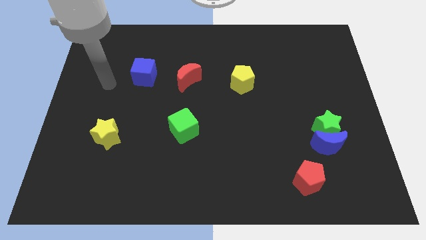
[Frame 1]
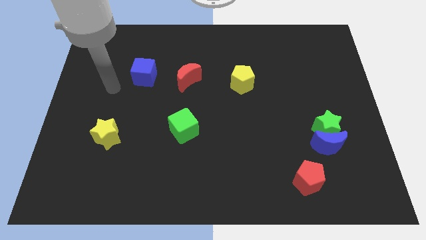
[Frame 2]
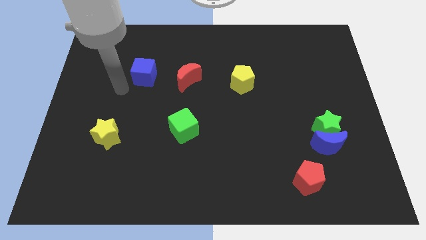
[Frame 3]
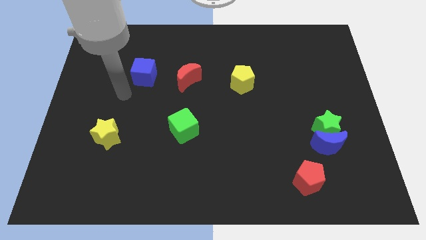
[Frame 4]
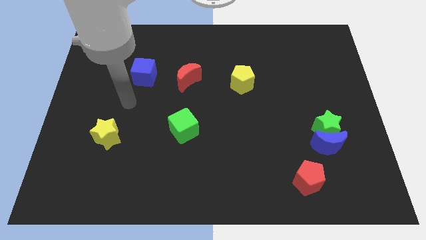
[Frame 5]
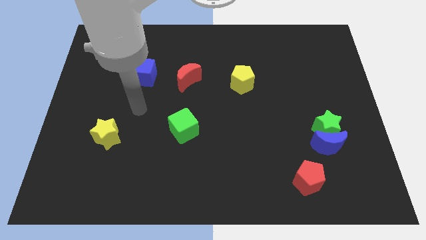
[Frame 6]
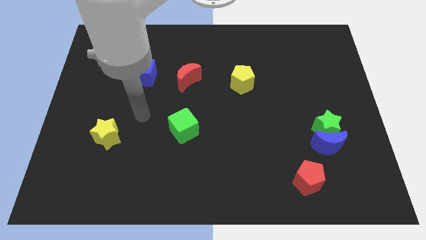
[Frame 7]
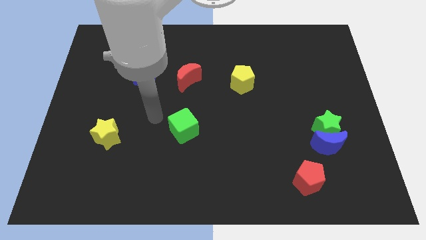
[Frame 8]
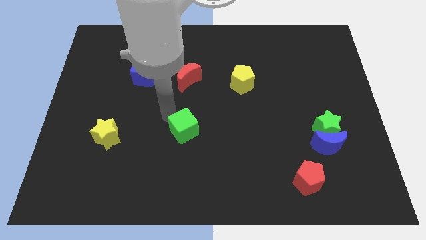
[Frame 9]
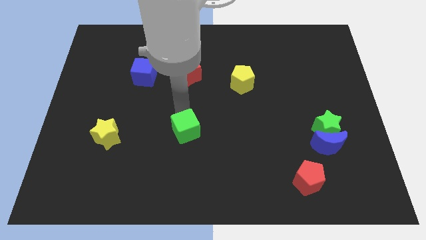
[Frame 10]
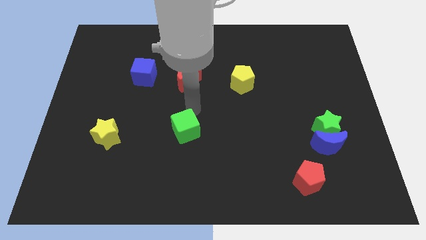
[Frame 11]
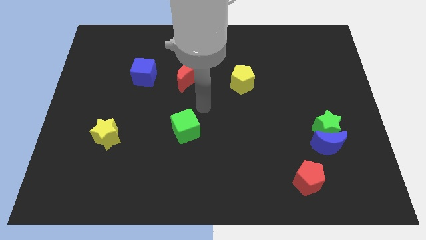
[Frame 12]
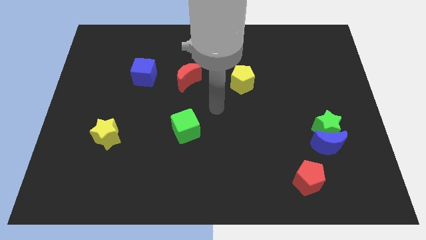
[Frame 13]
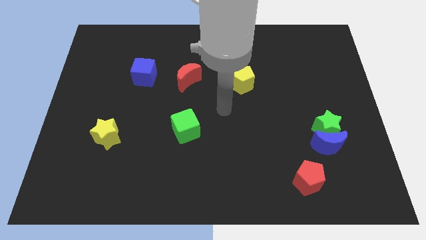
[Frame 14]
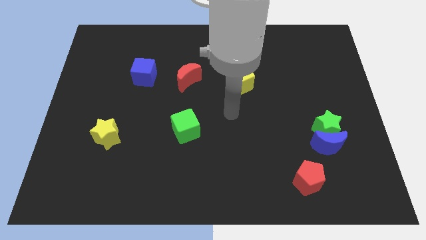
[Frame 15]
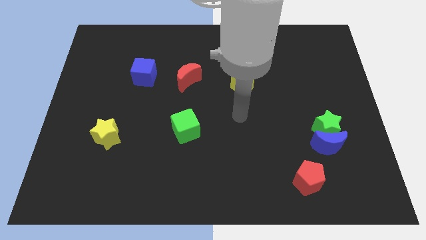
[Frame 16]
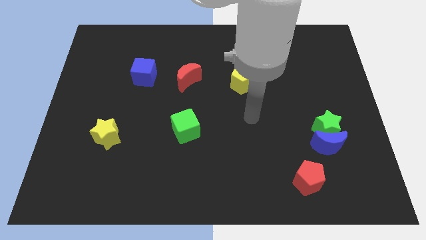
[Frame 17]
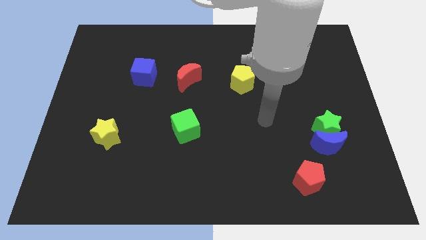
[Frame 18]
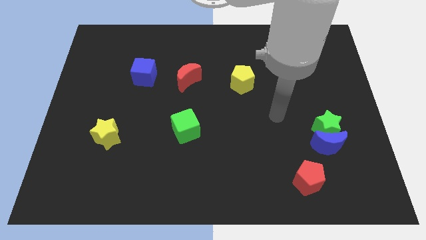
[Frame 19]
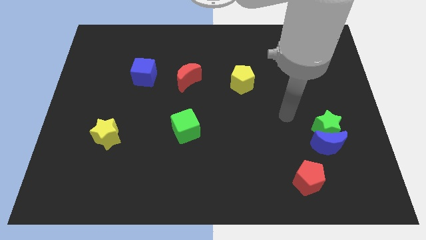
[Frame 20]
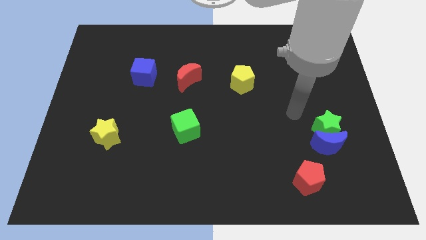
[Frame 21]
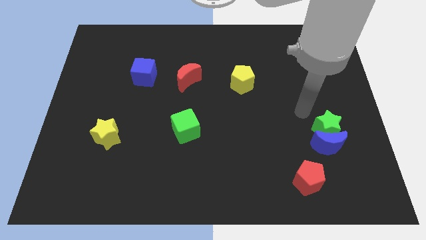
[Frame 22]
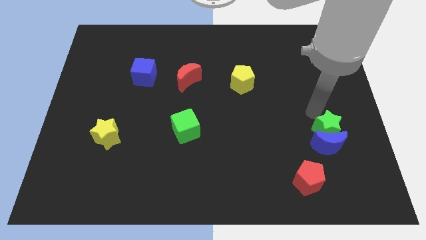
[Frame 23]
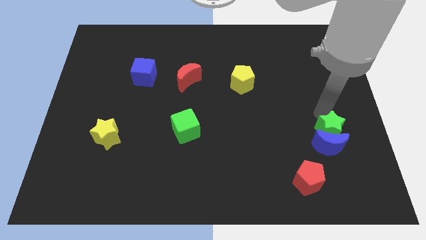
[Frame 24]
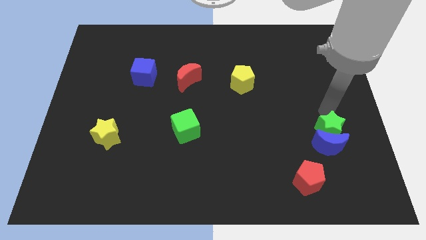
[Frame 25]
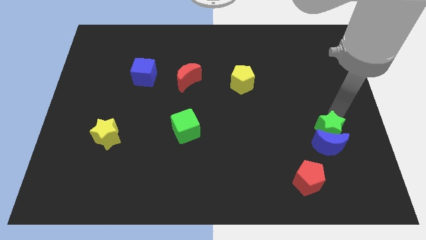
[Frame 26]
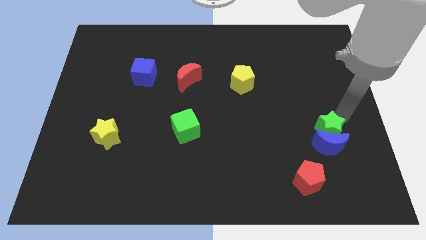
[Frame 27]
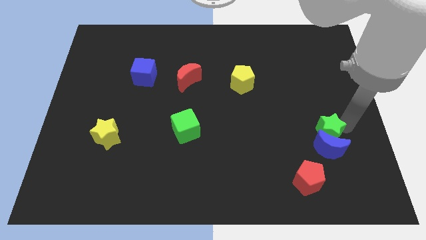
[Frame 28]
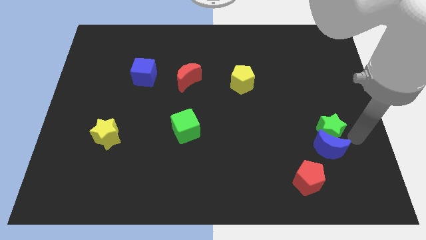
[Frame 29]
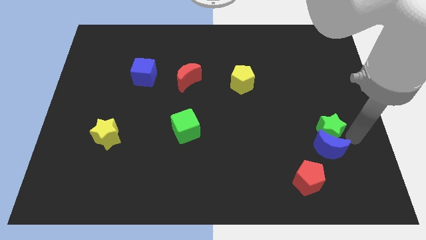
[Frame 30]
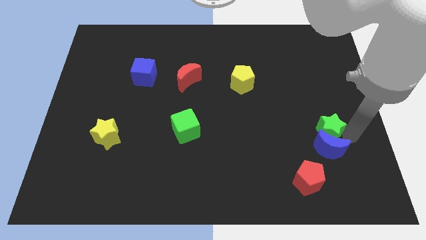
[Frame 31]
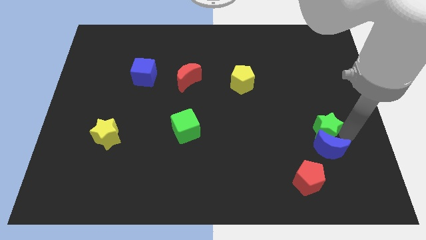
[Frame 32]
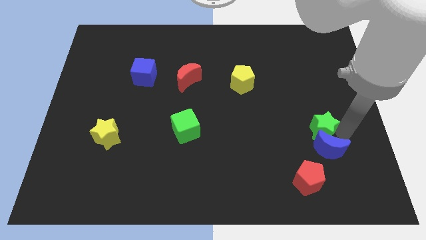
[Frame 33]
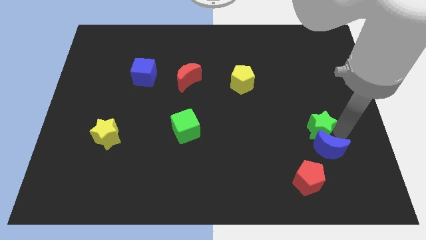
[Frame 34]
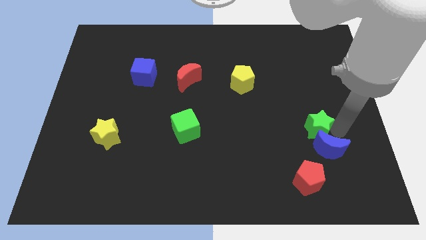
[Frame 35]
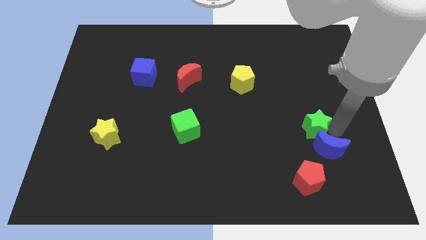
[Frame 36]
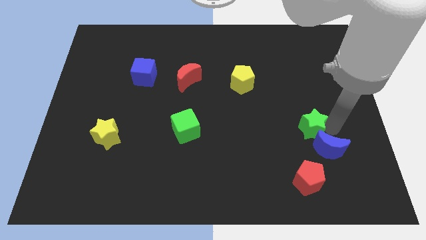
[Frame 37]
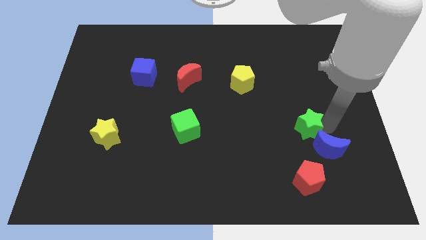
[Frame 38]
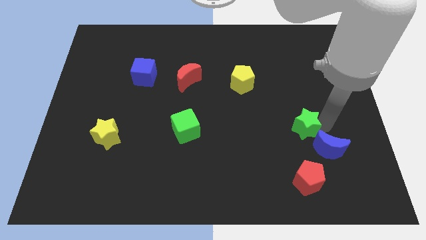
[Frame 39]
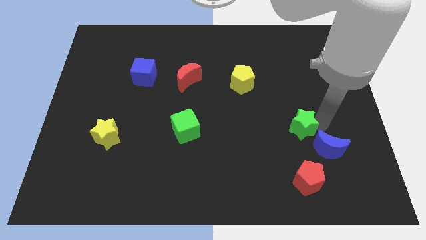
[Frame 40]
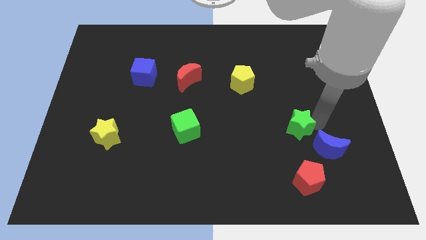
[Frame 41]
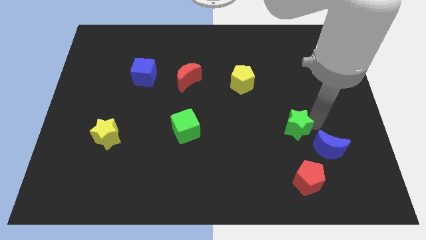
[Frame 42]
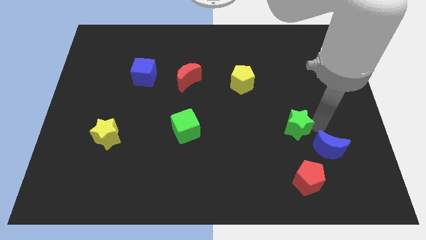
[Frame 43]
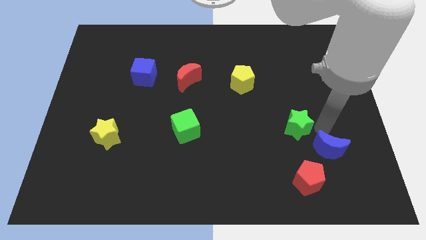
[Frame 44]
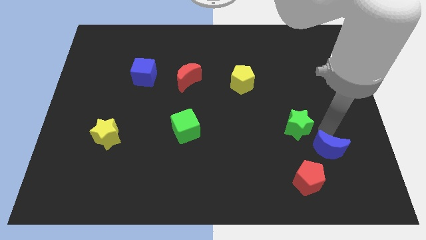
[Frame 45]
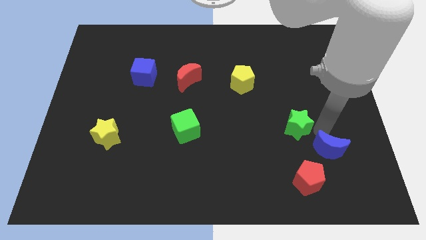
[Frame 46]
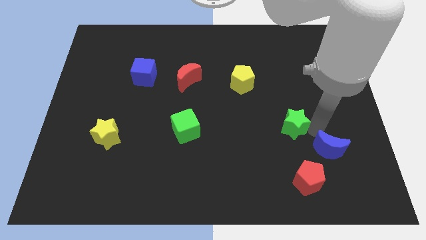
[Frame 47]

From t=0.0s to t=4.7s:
slide the green star somewhat to the left

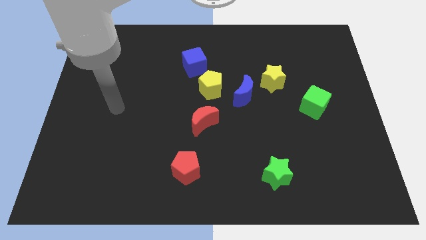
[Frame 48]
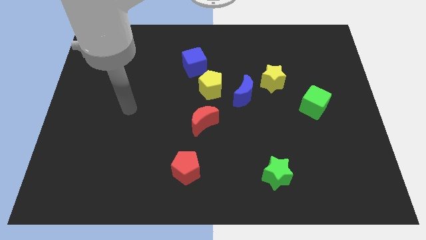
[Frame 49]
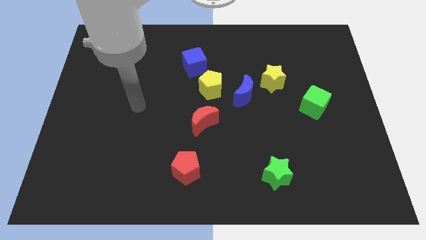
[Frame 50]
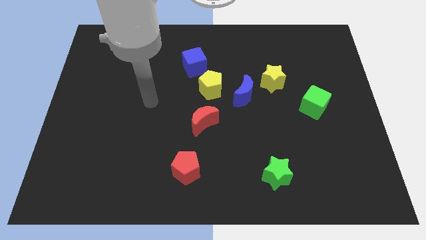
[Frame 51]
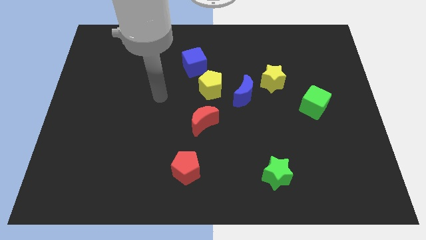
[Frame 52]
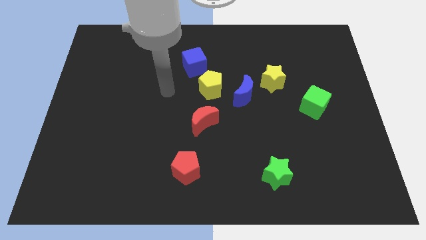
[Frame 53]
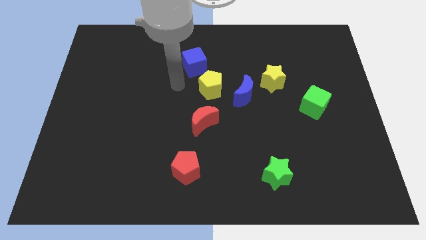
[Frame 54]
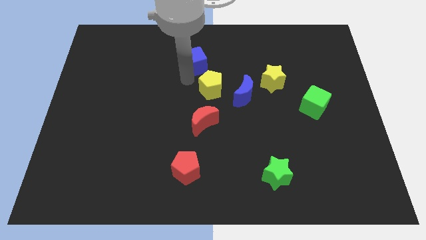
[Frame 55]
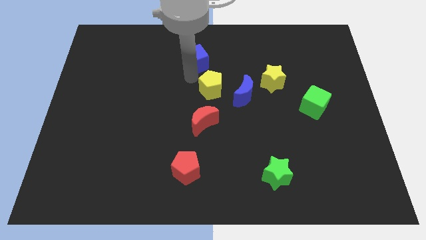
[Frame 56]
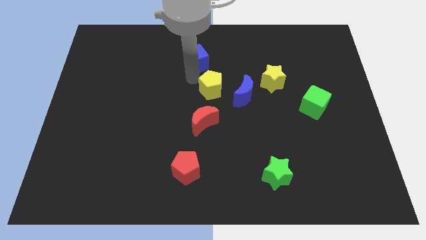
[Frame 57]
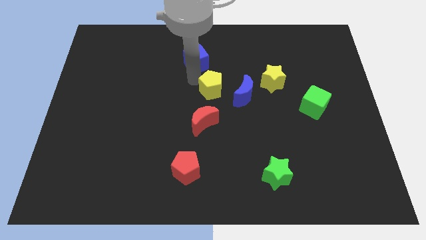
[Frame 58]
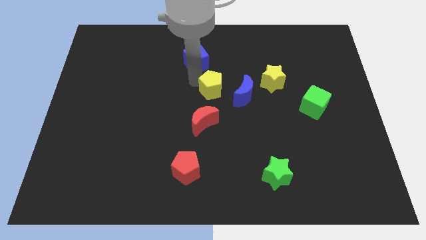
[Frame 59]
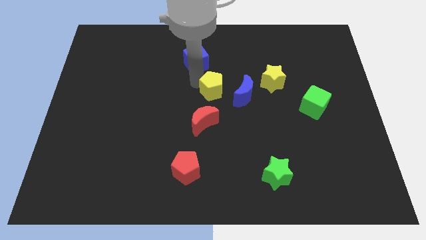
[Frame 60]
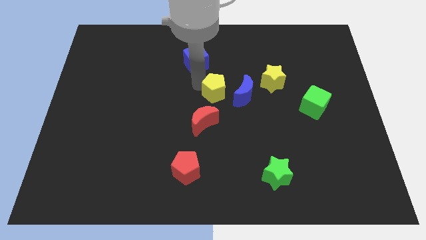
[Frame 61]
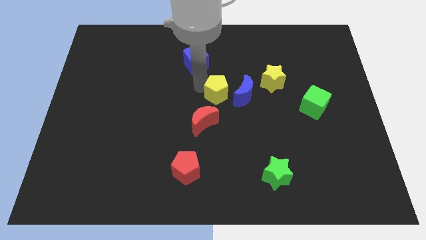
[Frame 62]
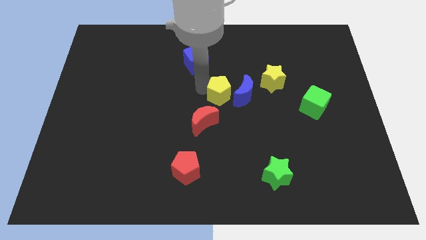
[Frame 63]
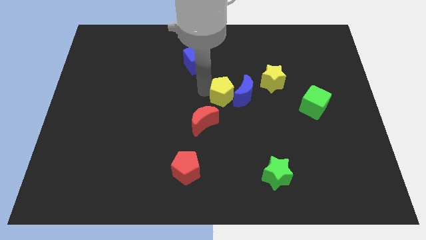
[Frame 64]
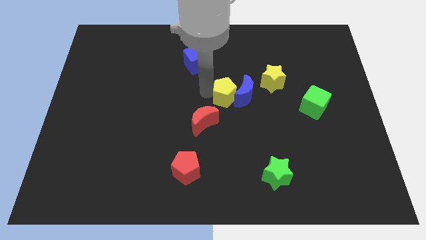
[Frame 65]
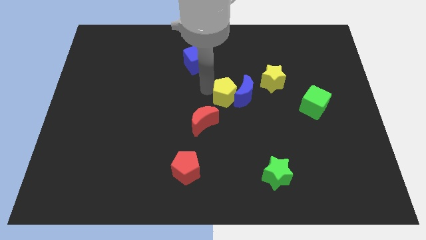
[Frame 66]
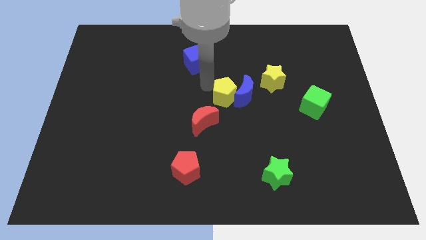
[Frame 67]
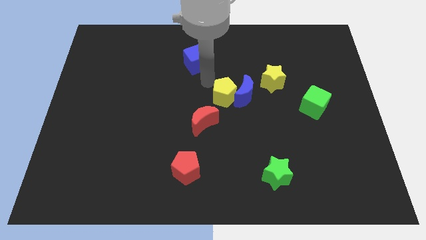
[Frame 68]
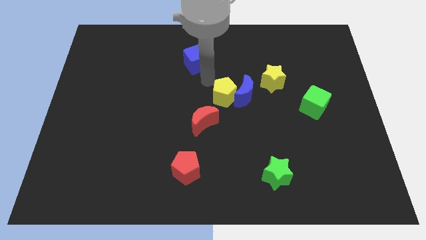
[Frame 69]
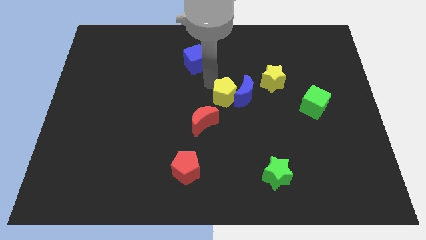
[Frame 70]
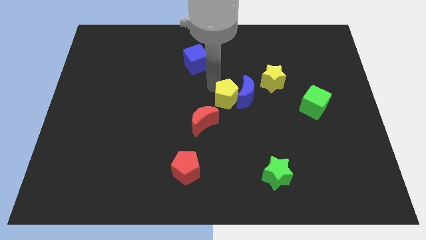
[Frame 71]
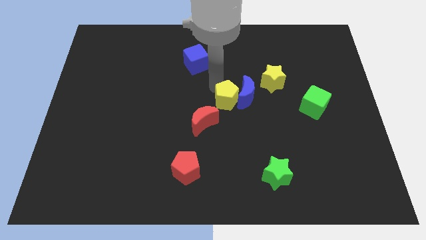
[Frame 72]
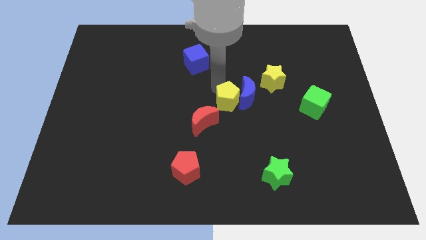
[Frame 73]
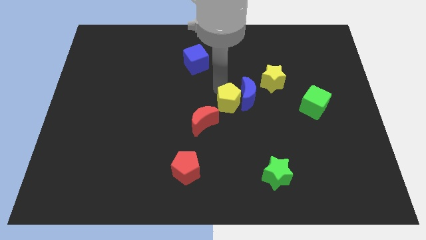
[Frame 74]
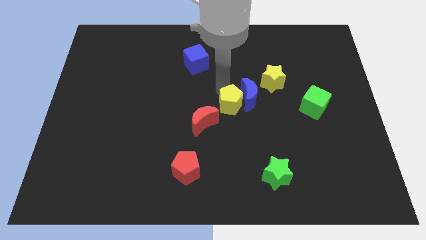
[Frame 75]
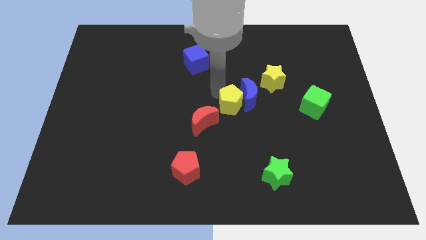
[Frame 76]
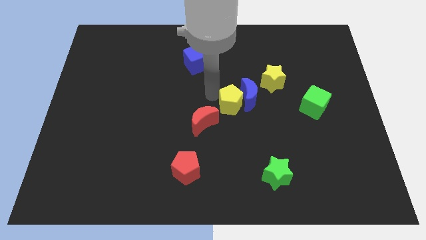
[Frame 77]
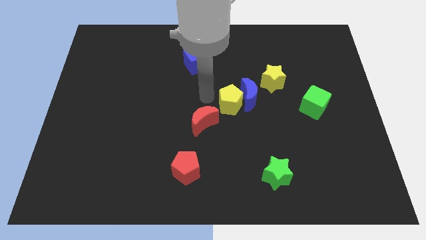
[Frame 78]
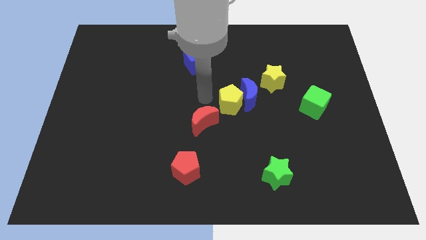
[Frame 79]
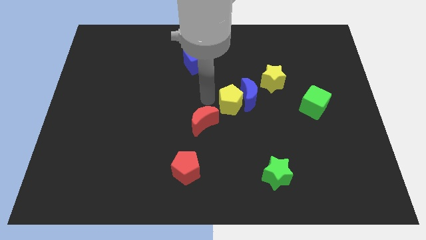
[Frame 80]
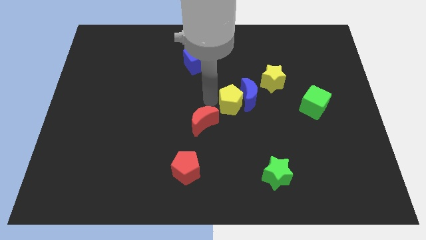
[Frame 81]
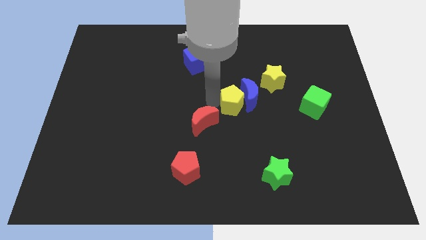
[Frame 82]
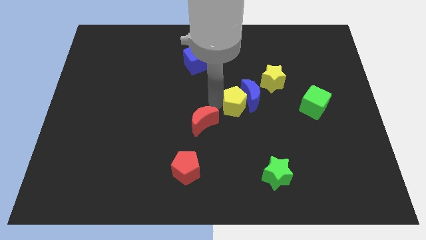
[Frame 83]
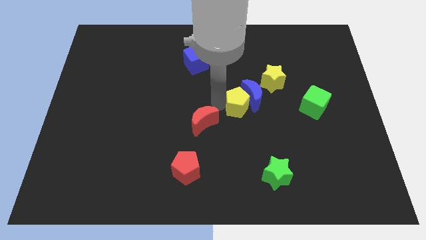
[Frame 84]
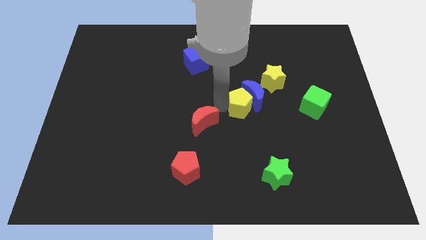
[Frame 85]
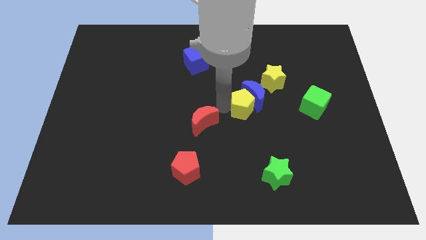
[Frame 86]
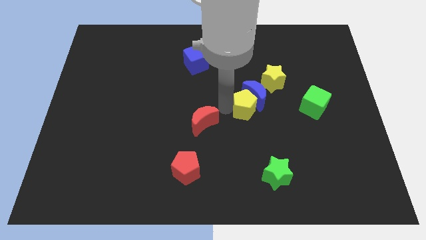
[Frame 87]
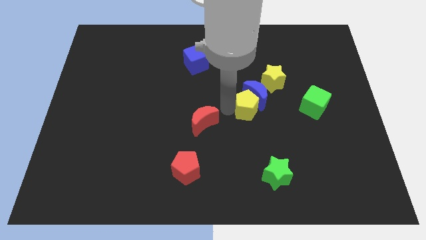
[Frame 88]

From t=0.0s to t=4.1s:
slightly move the yellow pentagon right
